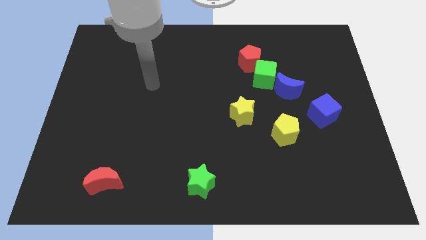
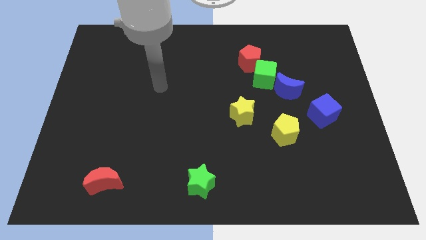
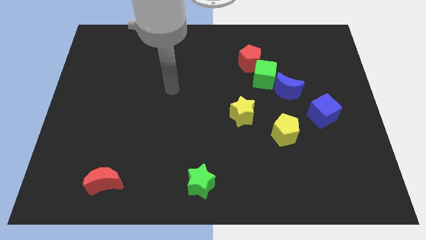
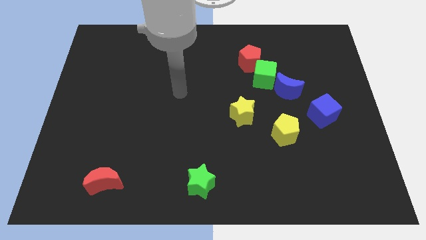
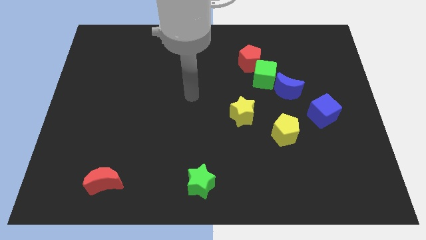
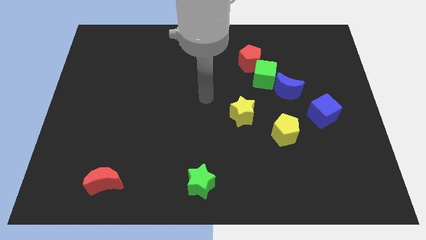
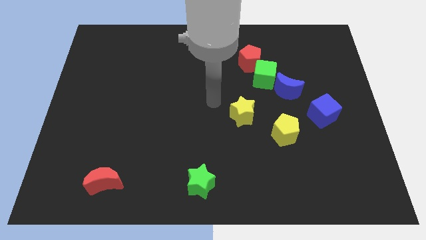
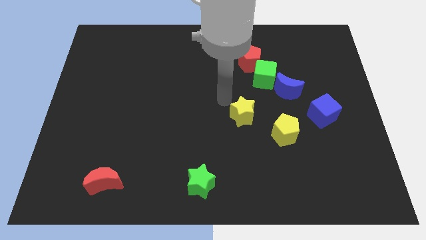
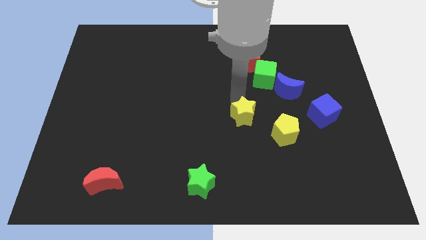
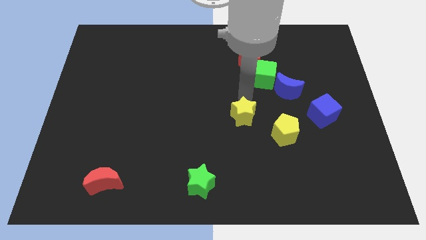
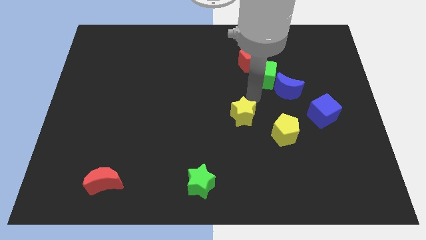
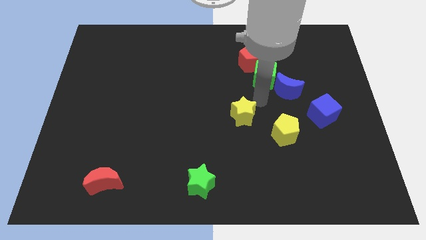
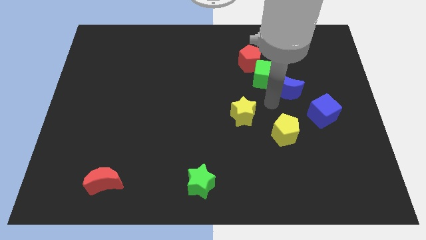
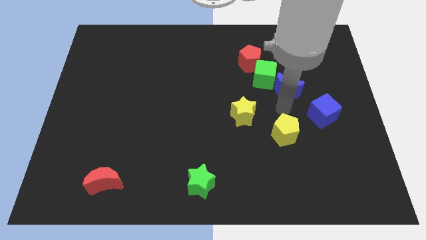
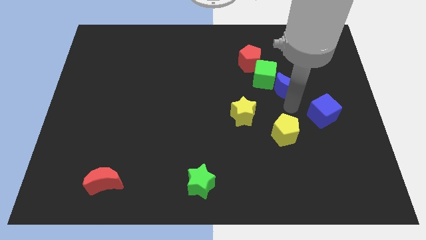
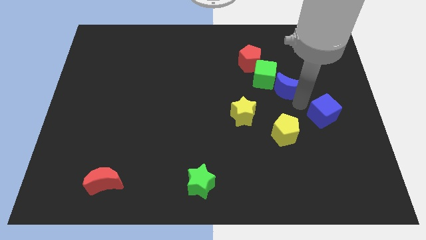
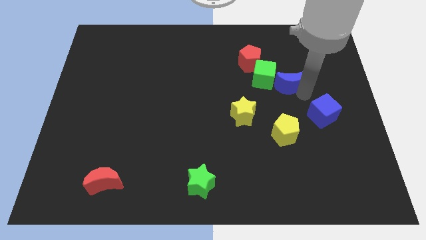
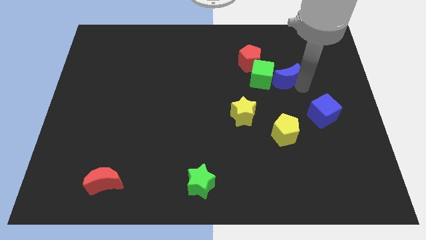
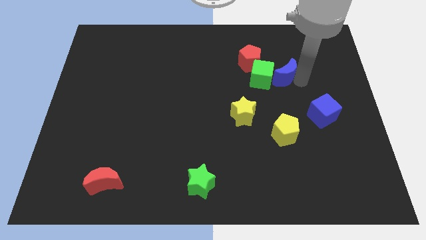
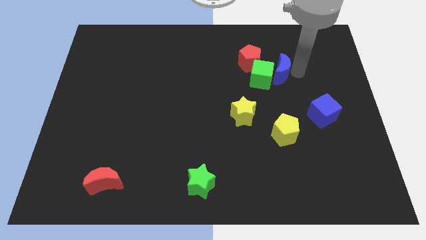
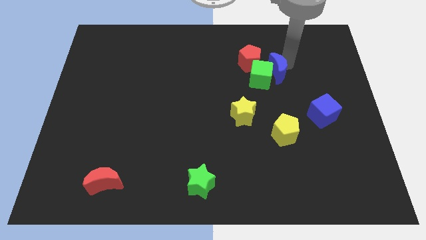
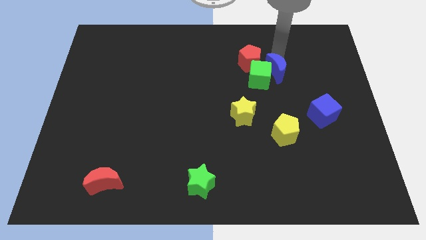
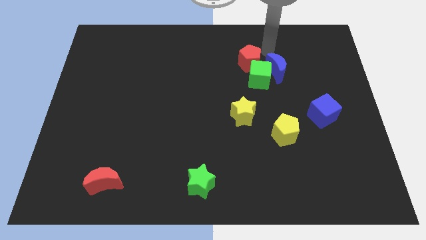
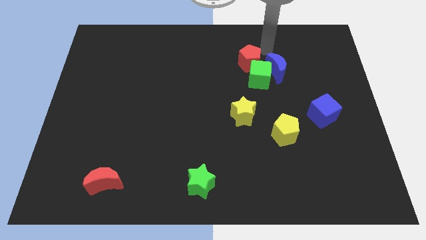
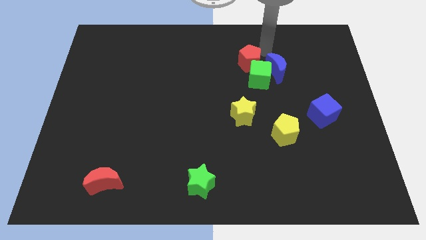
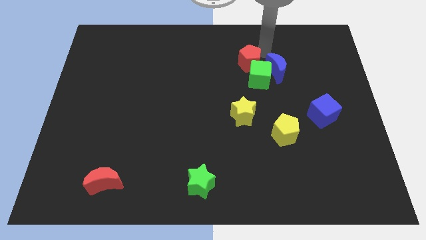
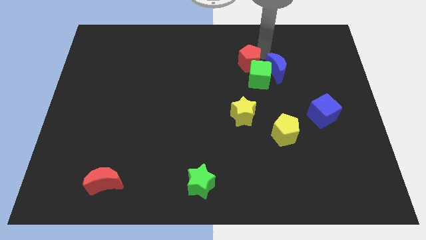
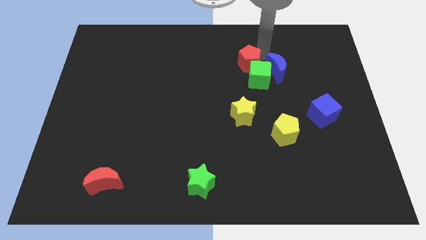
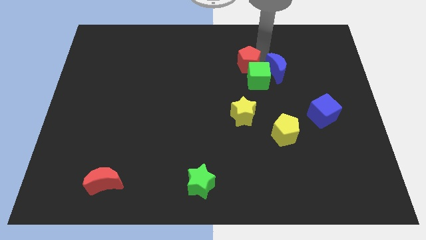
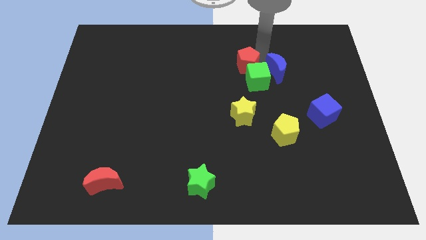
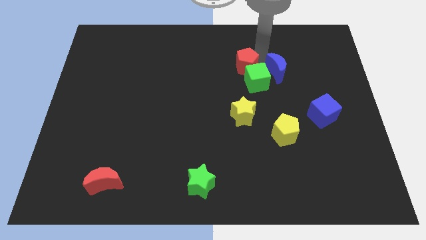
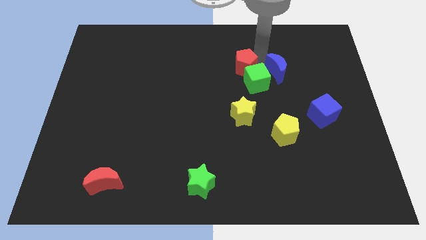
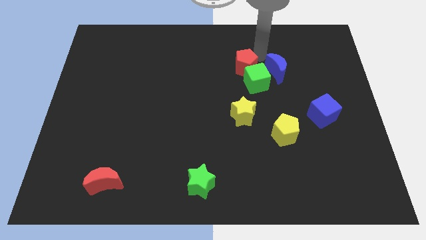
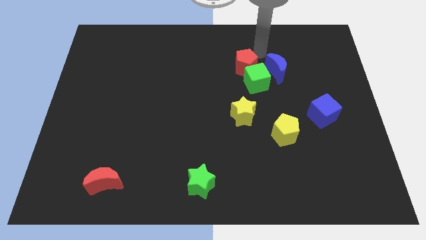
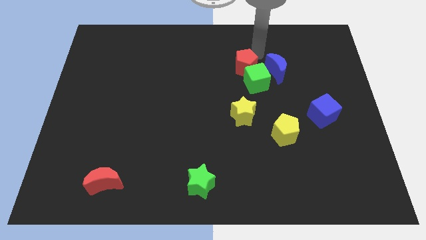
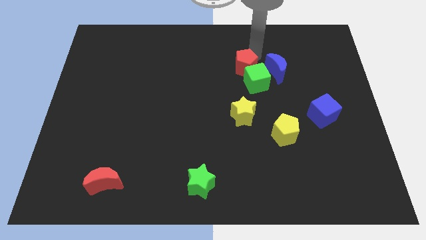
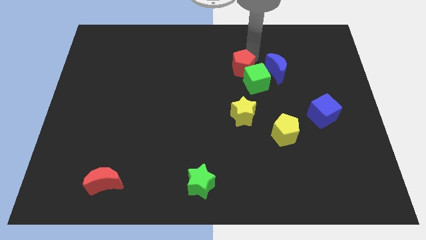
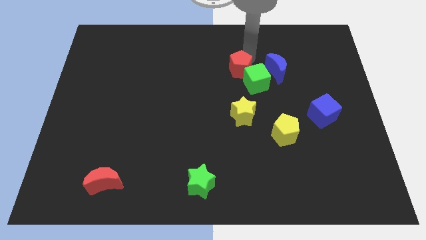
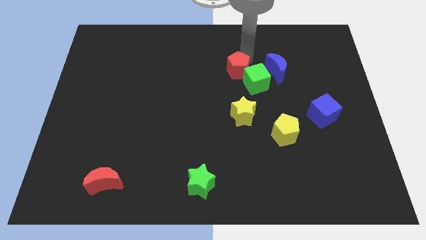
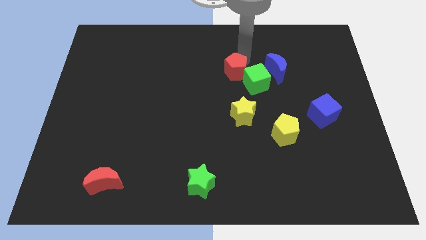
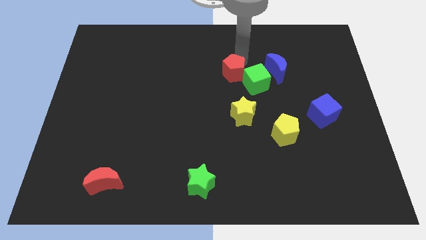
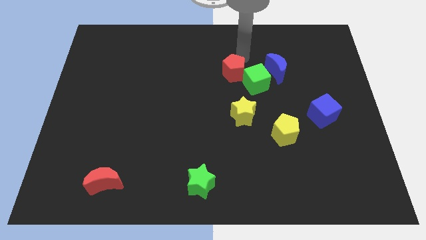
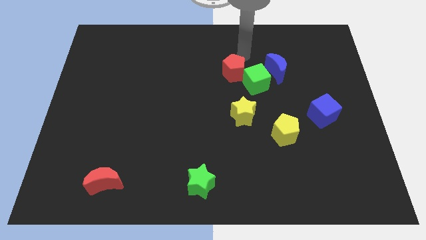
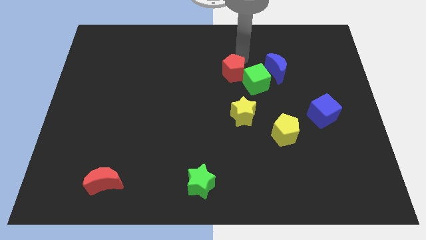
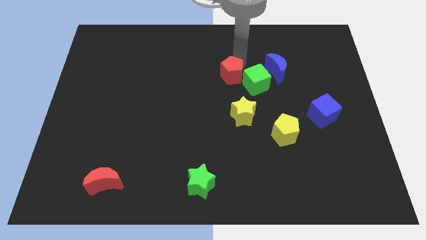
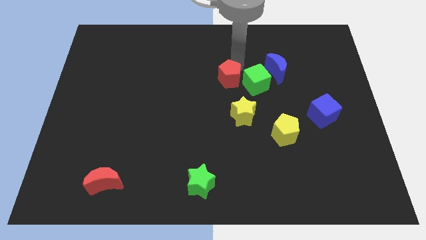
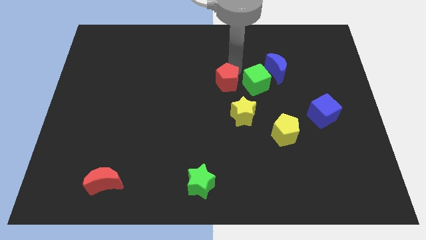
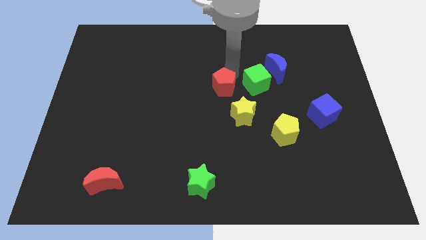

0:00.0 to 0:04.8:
push the red pentagon diagonally up and to the left of the yellow star

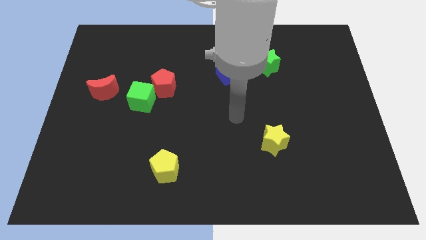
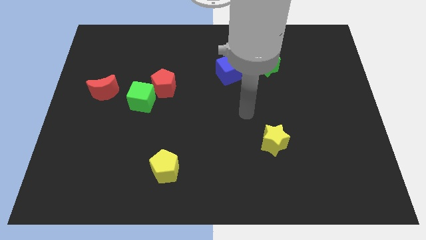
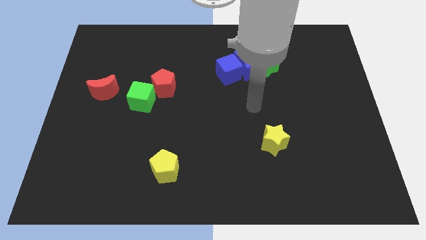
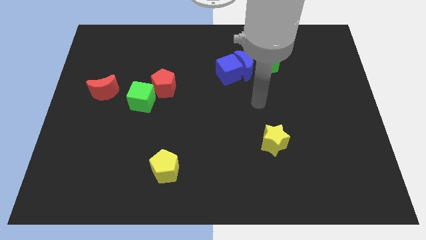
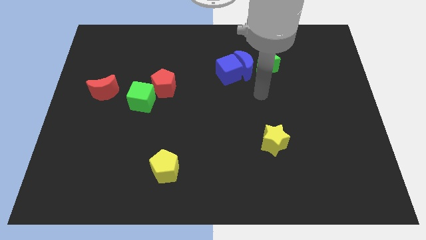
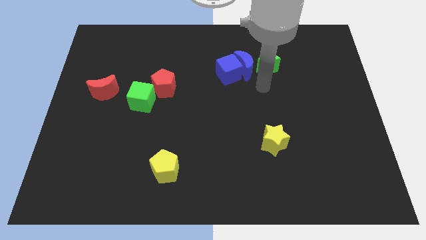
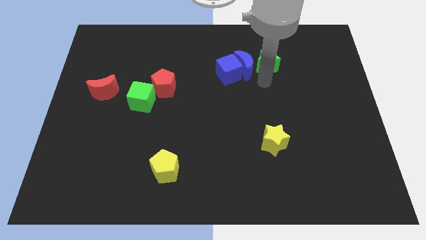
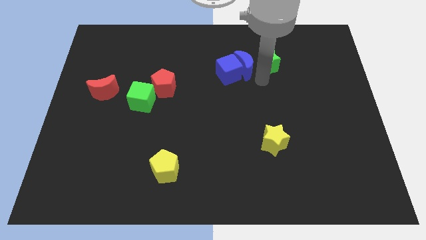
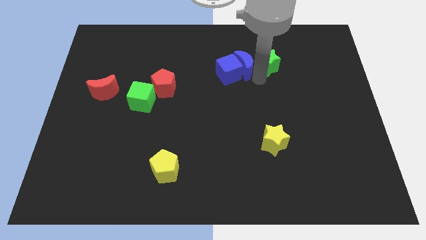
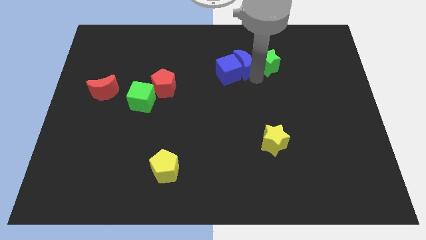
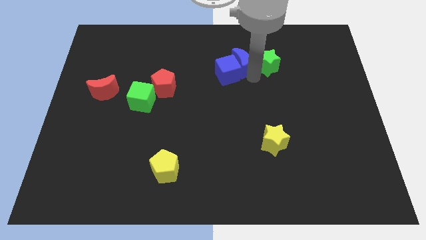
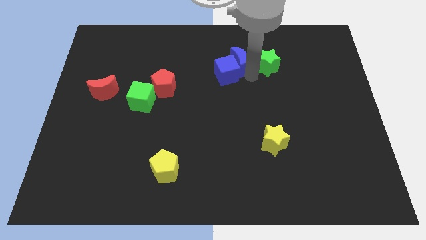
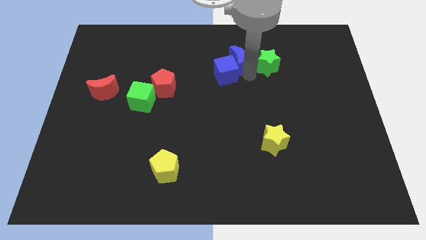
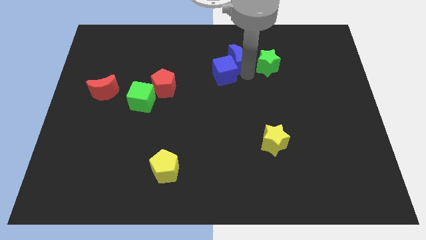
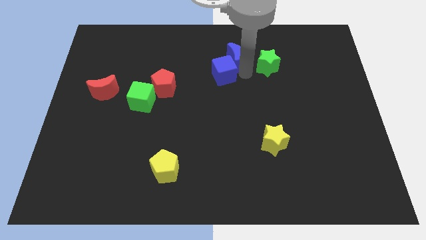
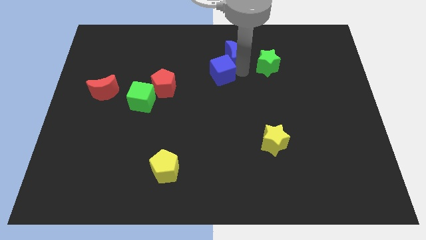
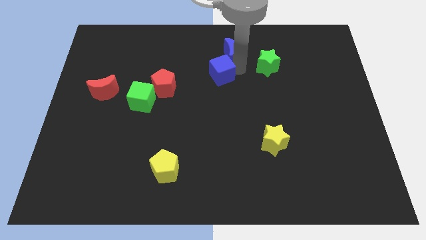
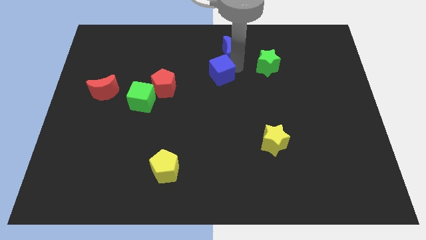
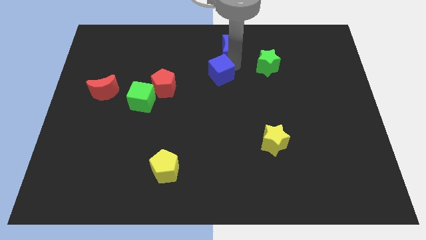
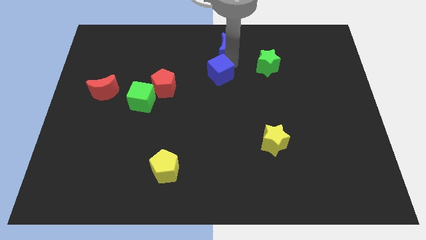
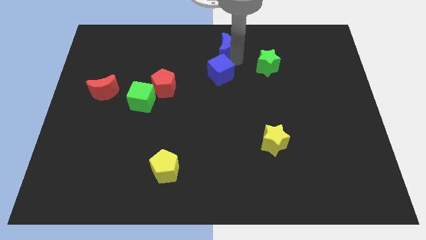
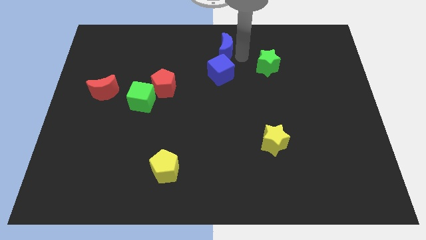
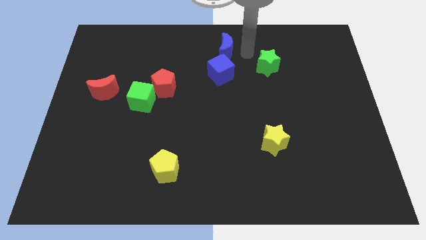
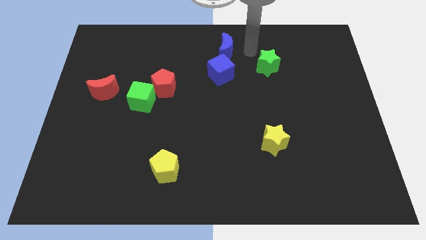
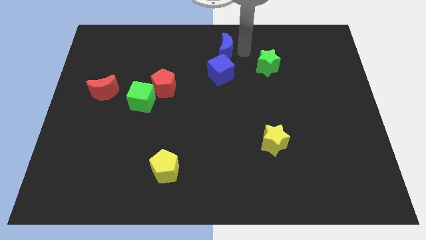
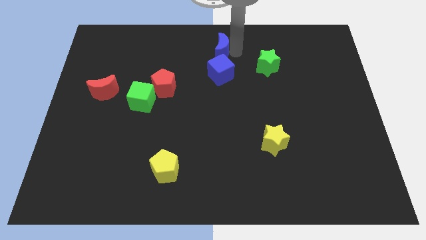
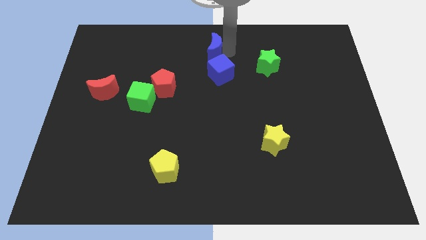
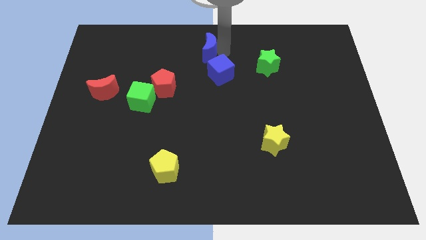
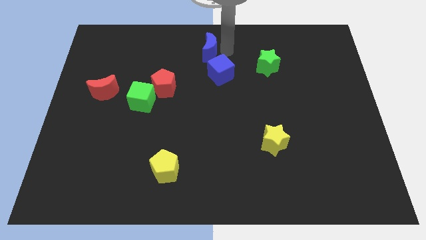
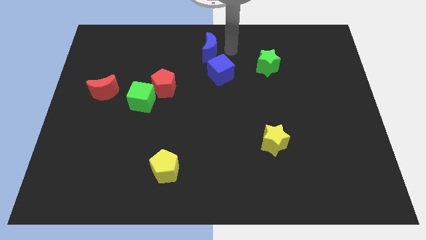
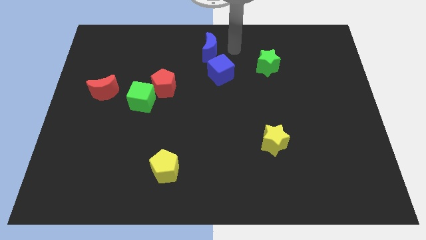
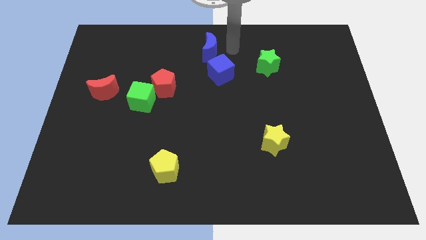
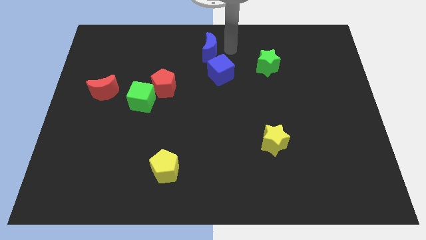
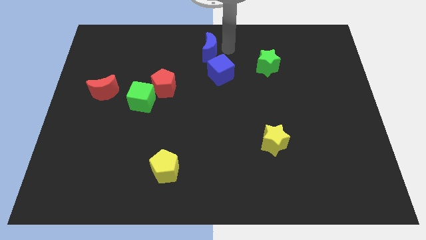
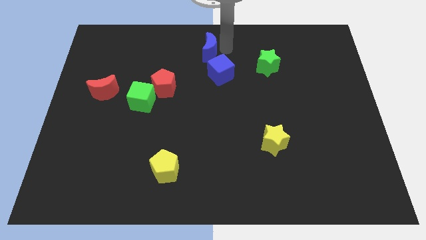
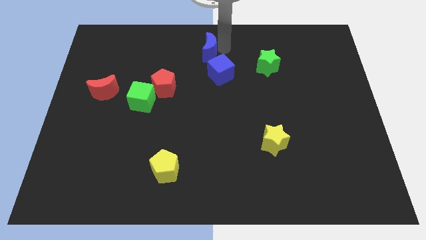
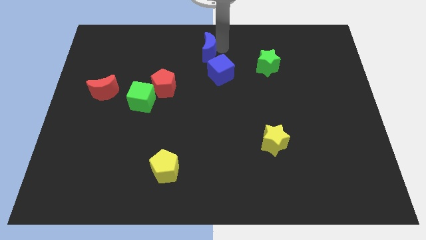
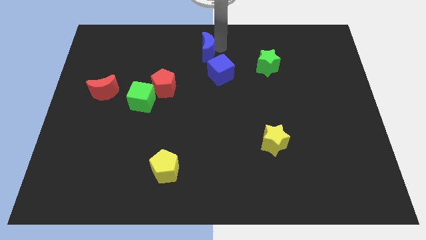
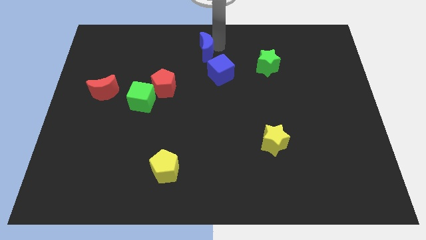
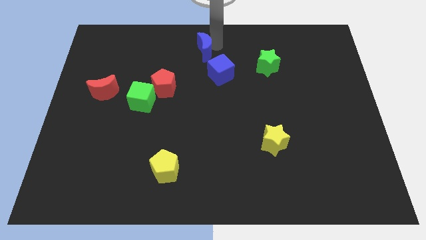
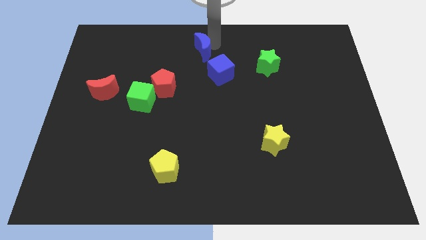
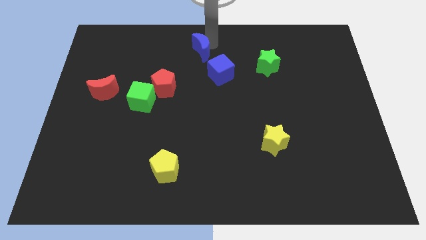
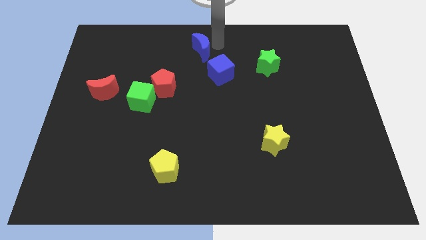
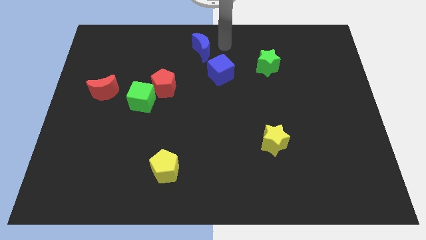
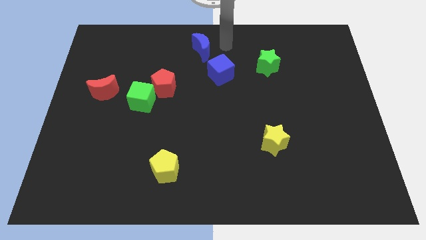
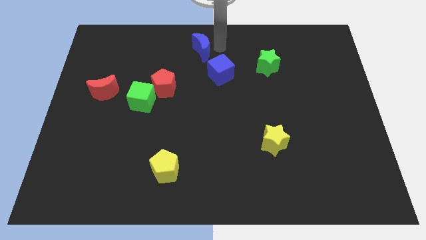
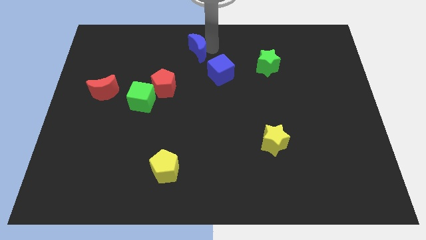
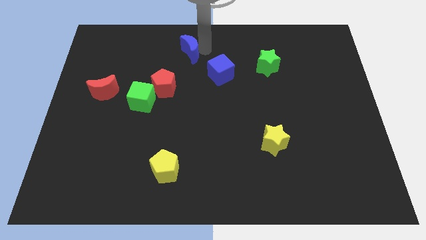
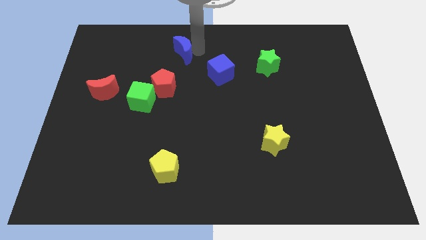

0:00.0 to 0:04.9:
push the blue moon to the top of the red pentagon
